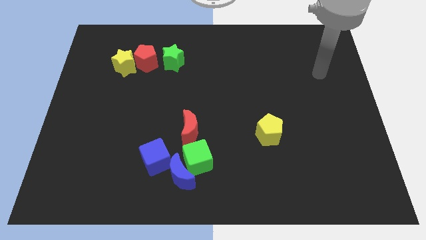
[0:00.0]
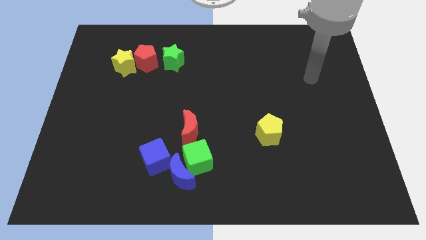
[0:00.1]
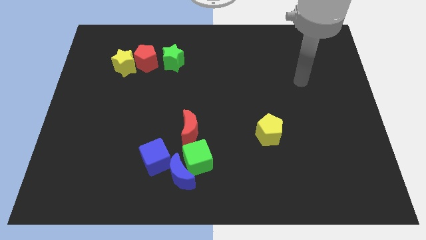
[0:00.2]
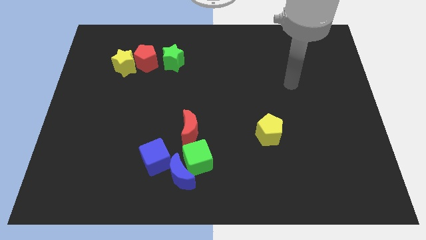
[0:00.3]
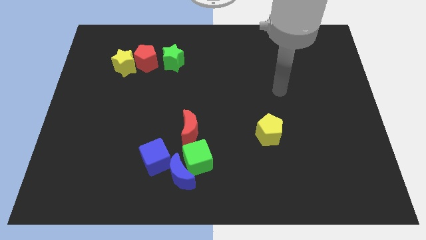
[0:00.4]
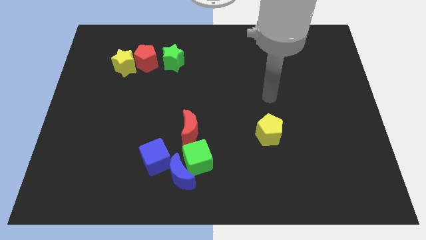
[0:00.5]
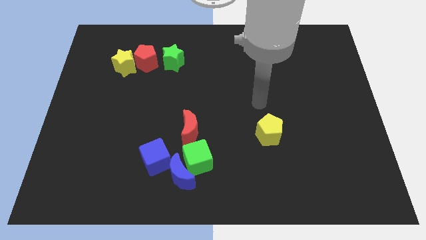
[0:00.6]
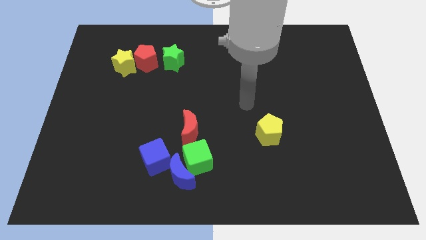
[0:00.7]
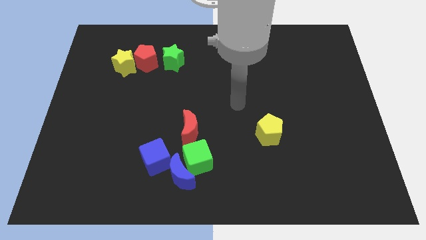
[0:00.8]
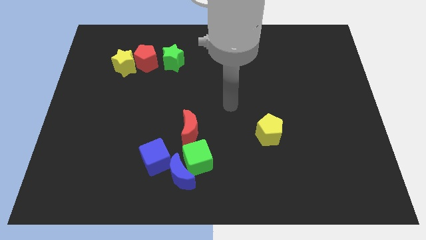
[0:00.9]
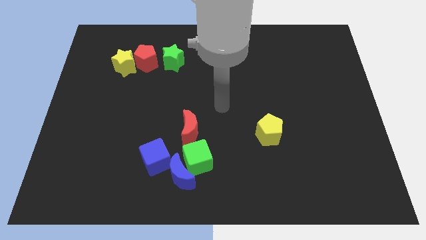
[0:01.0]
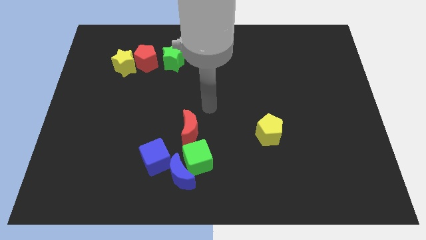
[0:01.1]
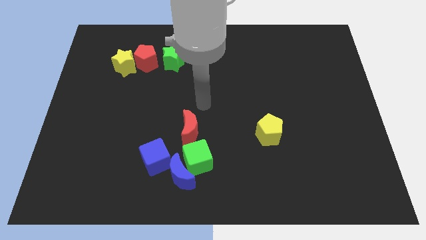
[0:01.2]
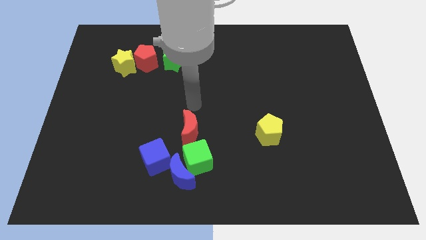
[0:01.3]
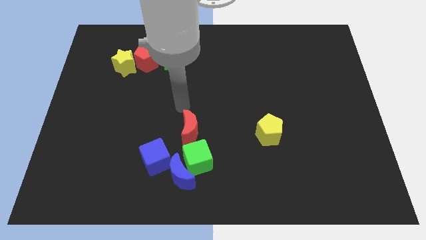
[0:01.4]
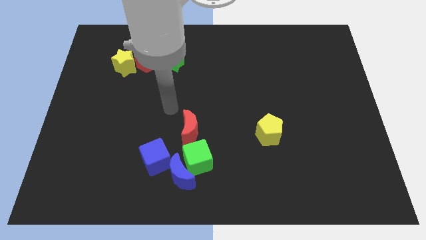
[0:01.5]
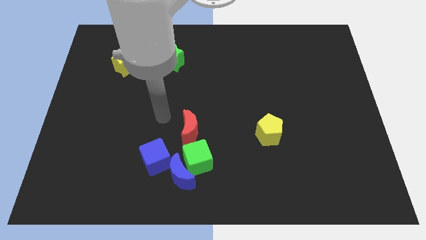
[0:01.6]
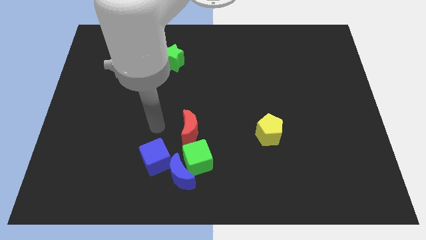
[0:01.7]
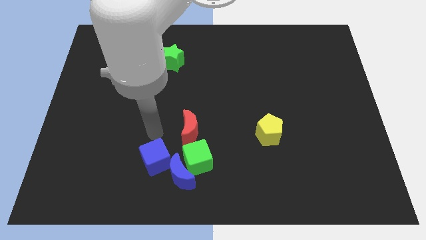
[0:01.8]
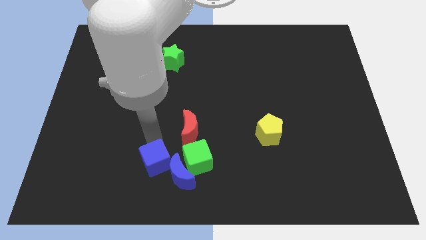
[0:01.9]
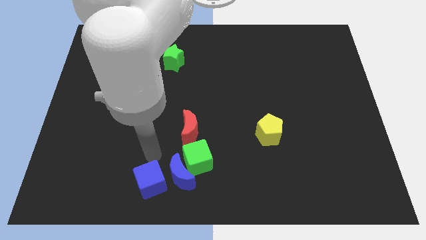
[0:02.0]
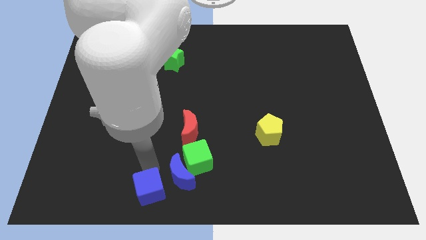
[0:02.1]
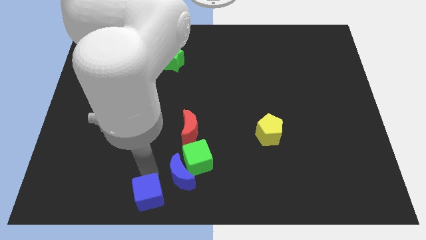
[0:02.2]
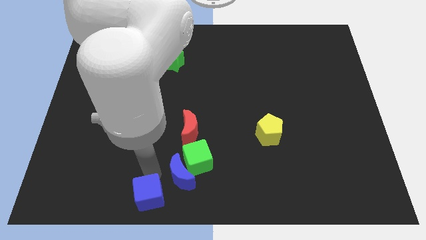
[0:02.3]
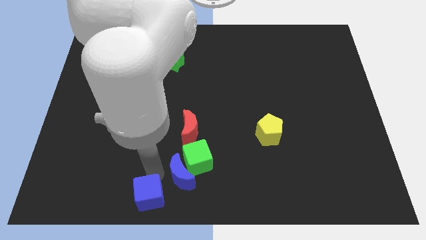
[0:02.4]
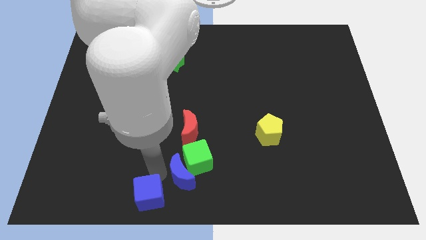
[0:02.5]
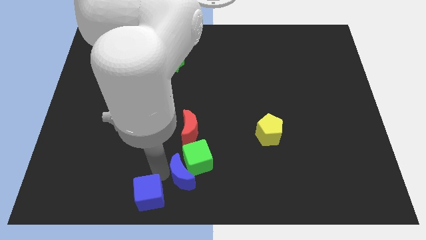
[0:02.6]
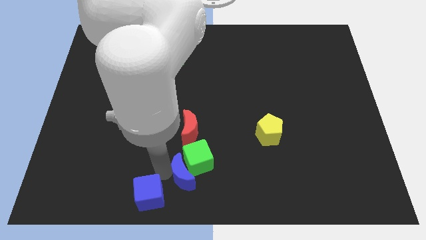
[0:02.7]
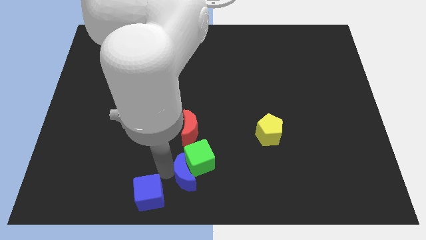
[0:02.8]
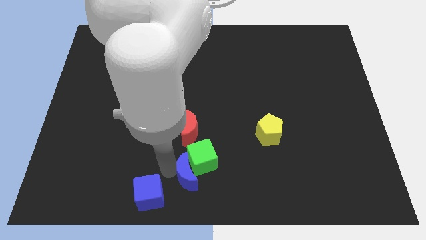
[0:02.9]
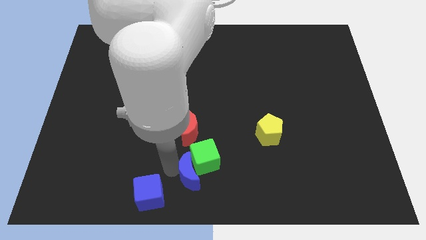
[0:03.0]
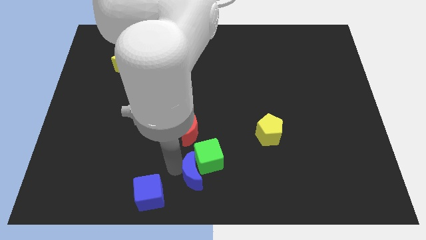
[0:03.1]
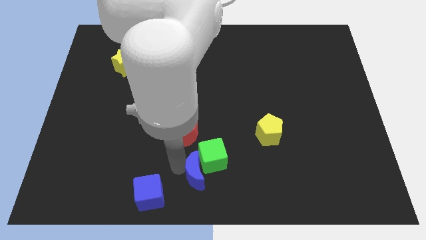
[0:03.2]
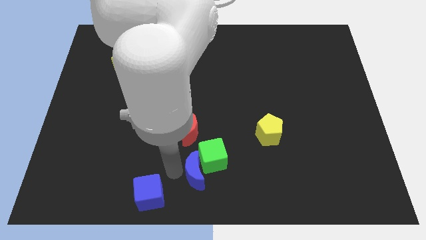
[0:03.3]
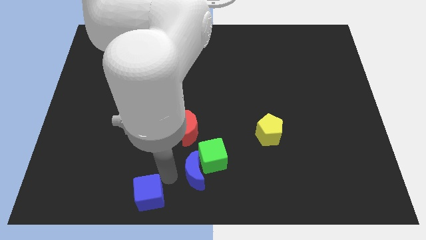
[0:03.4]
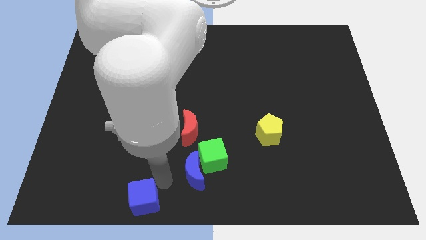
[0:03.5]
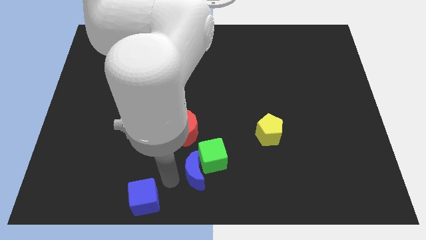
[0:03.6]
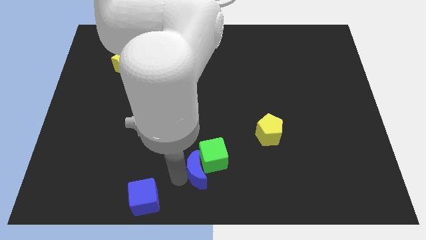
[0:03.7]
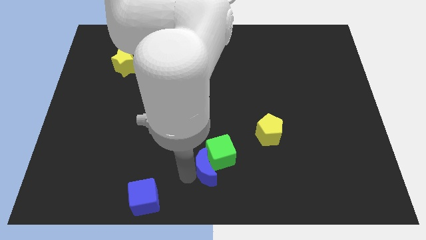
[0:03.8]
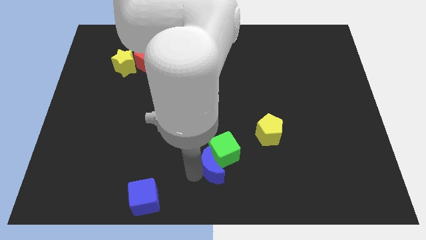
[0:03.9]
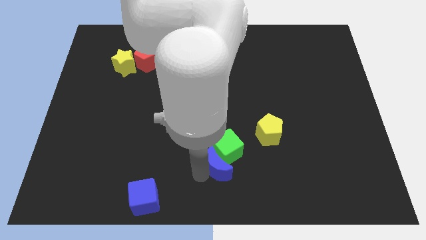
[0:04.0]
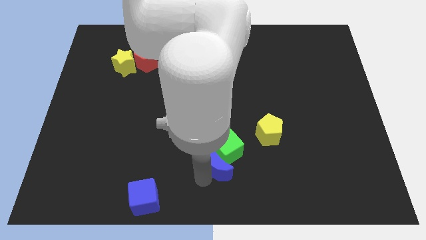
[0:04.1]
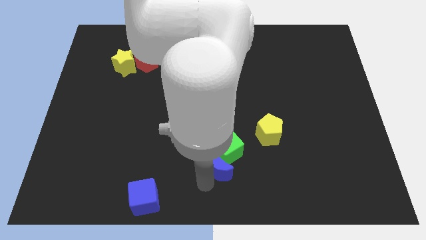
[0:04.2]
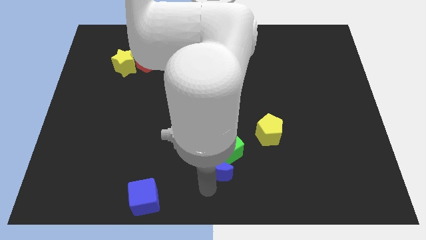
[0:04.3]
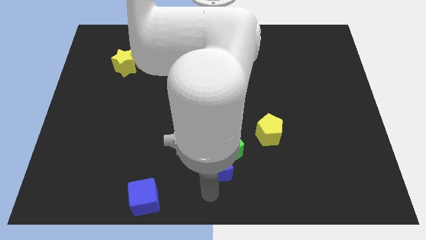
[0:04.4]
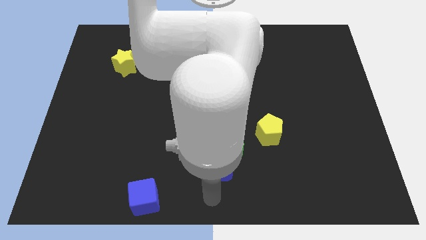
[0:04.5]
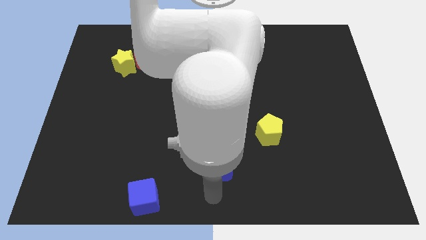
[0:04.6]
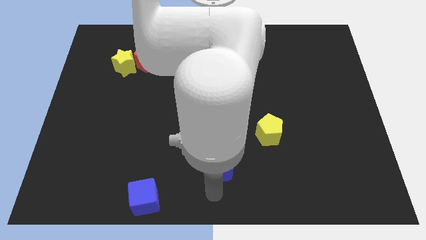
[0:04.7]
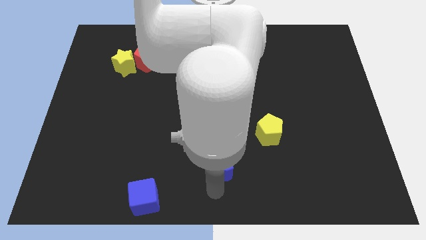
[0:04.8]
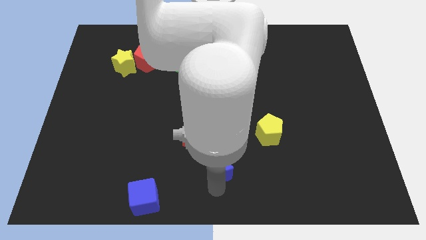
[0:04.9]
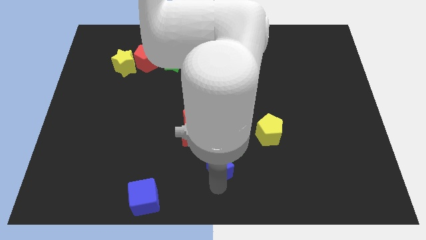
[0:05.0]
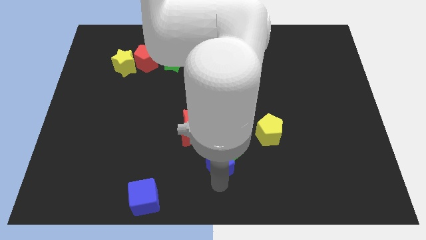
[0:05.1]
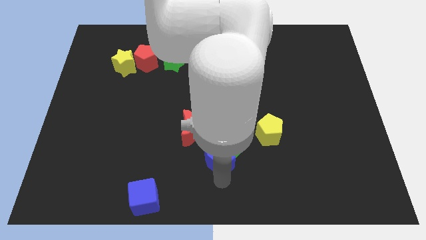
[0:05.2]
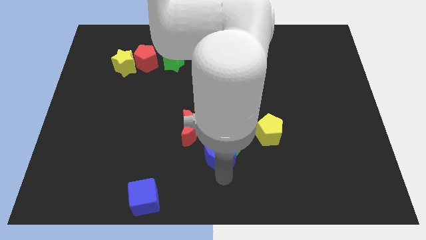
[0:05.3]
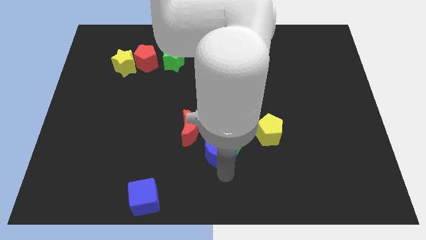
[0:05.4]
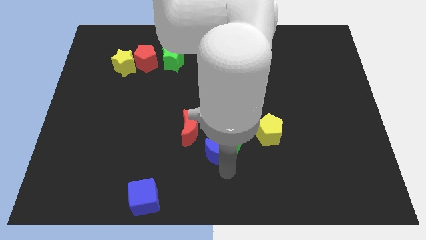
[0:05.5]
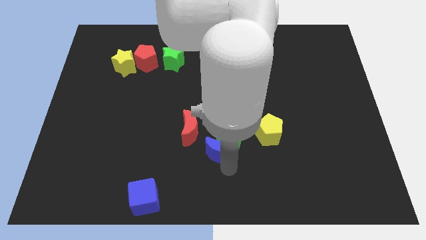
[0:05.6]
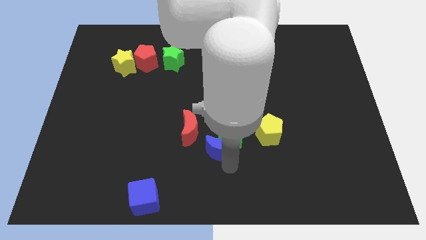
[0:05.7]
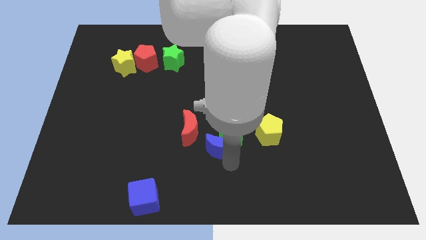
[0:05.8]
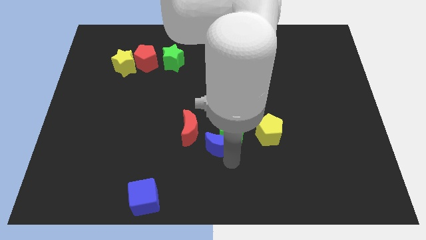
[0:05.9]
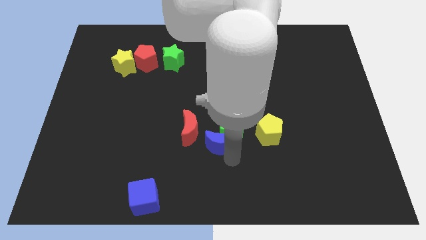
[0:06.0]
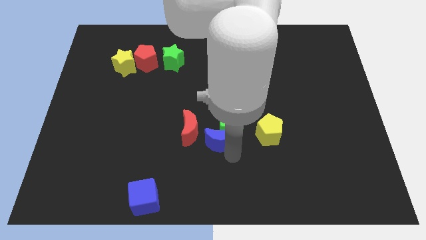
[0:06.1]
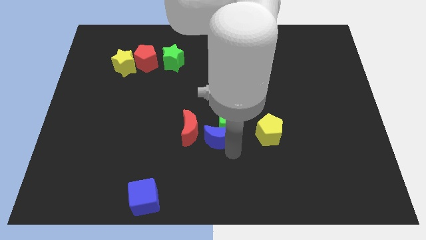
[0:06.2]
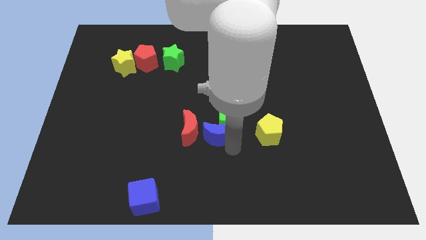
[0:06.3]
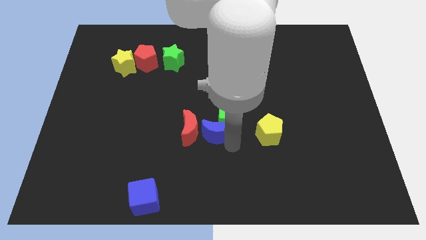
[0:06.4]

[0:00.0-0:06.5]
slide the blue moon diagonally up and to the right of the red moon

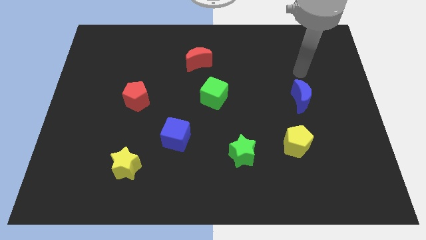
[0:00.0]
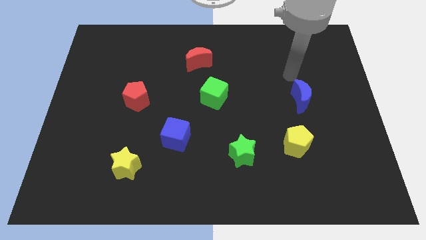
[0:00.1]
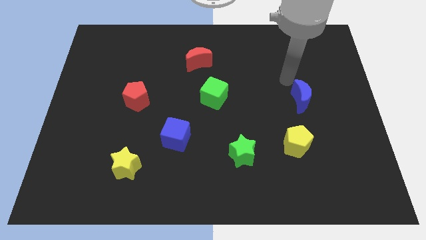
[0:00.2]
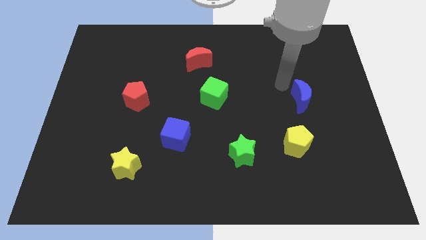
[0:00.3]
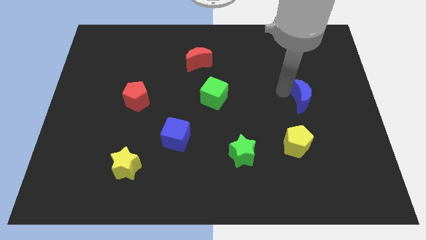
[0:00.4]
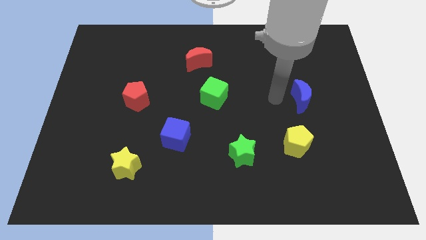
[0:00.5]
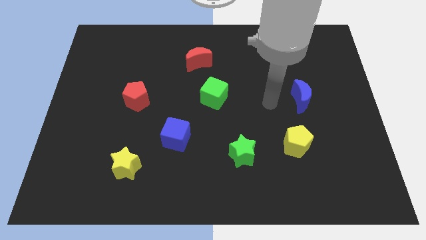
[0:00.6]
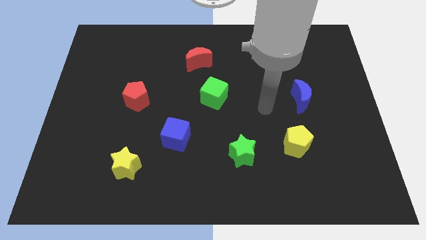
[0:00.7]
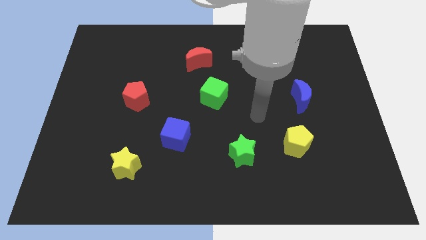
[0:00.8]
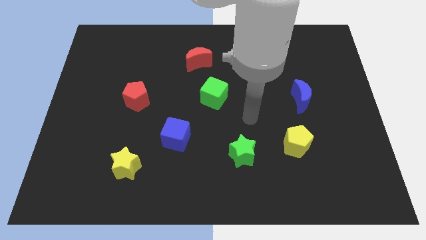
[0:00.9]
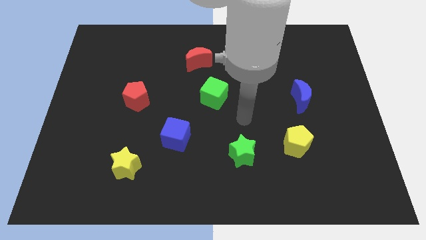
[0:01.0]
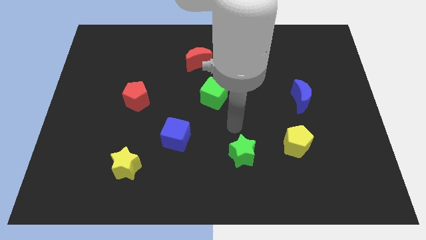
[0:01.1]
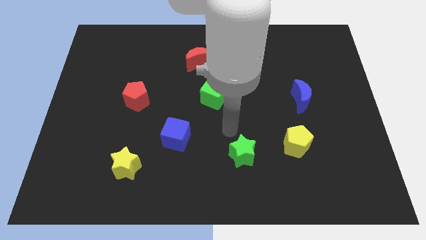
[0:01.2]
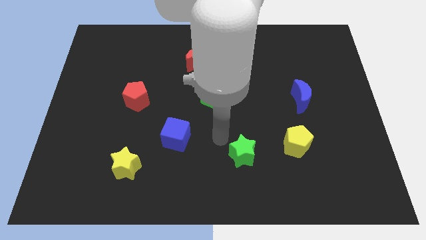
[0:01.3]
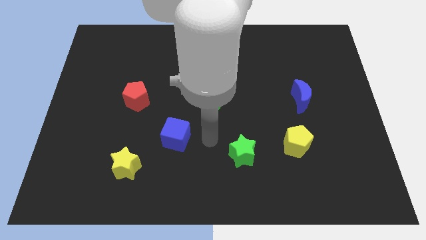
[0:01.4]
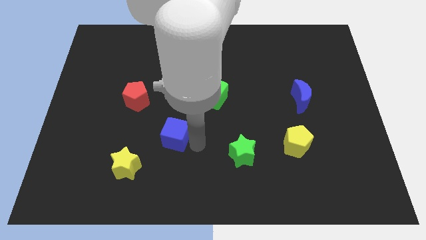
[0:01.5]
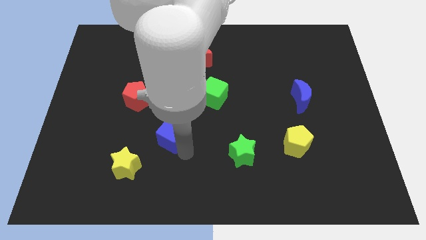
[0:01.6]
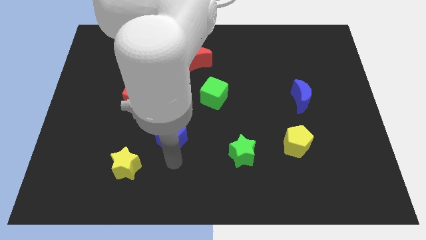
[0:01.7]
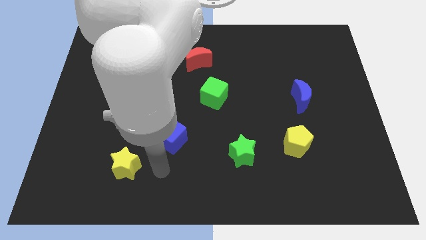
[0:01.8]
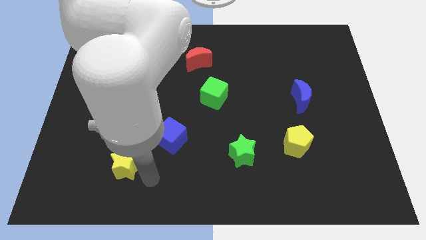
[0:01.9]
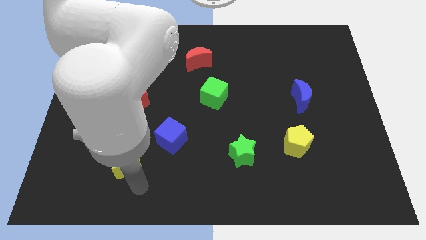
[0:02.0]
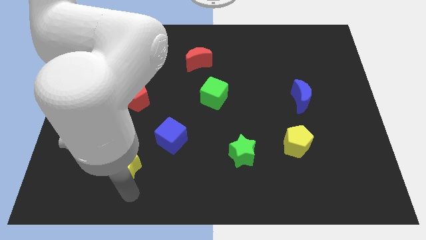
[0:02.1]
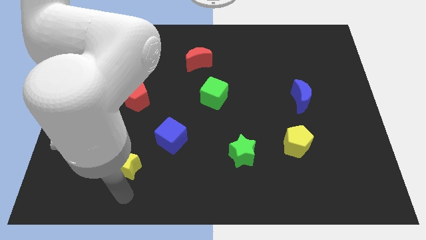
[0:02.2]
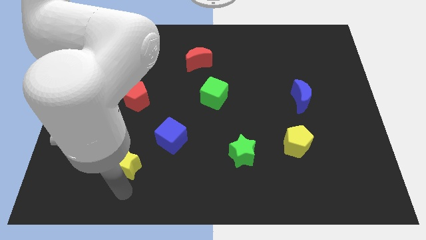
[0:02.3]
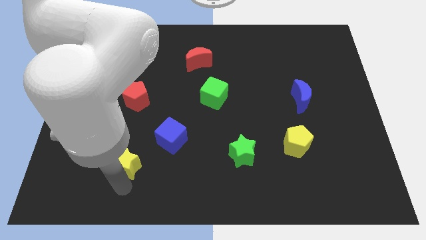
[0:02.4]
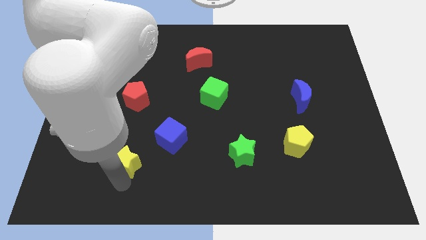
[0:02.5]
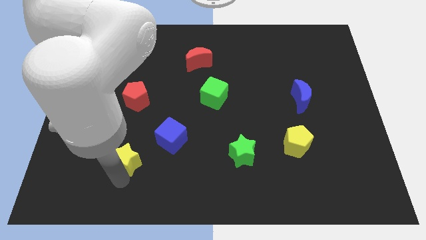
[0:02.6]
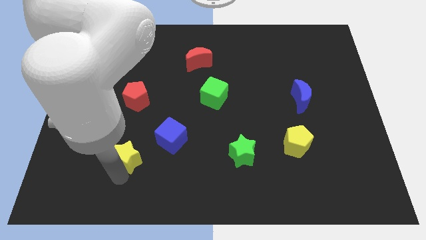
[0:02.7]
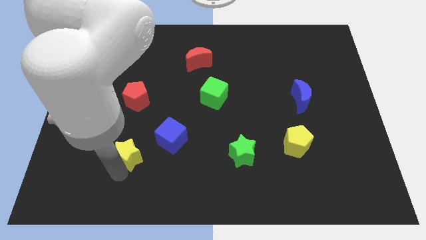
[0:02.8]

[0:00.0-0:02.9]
move the yellow star to the bottom side of the red pentagon
